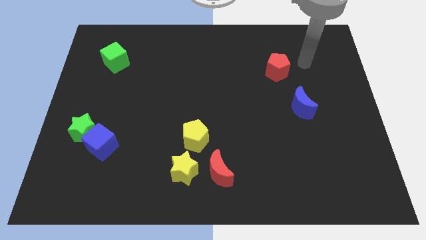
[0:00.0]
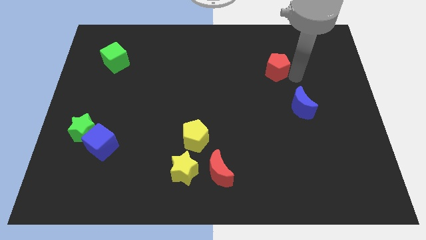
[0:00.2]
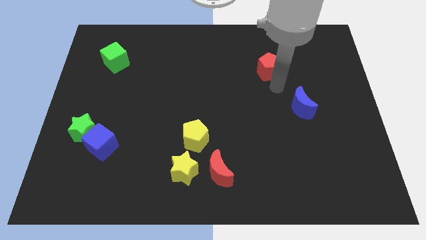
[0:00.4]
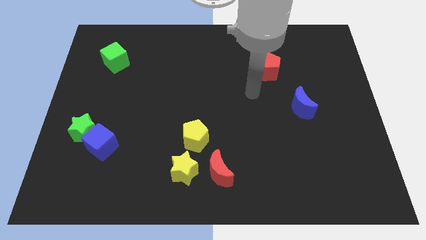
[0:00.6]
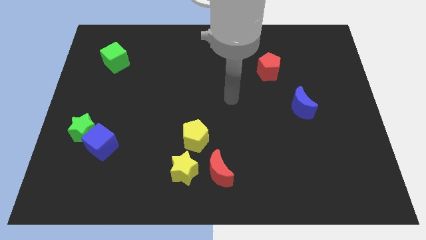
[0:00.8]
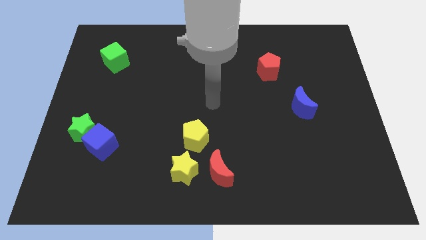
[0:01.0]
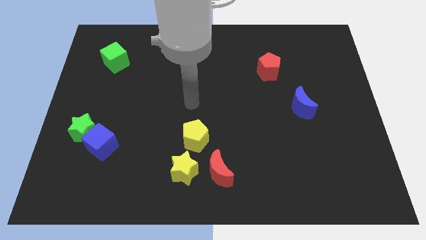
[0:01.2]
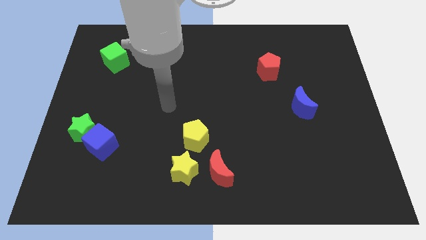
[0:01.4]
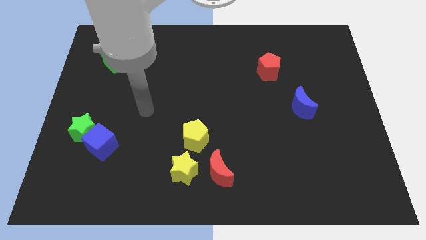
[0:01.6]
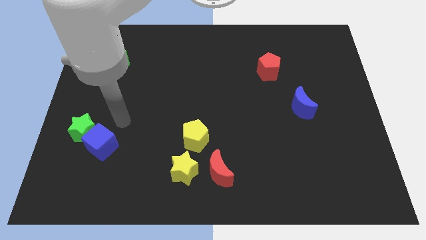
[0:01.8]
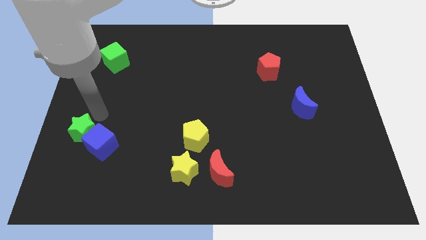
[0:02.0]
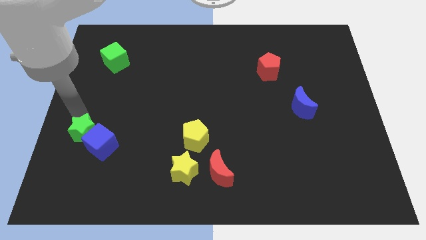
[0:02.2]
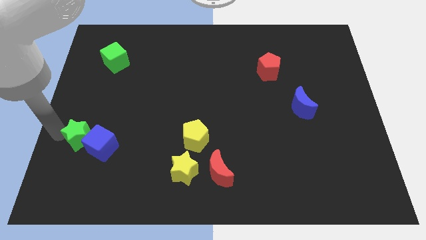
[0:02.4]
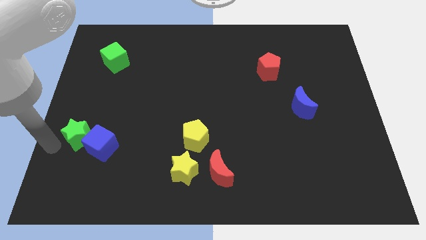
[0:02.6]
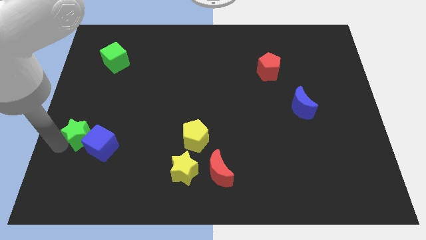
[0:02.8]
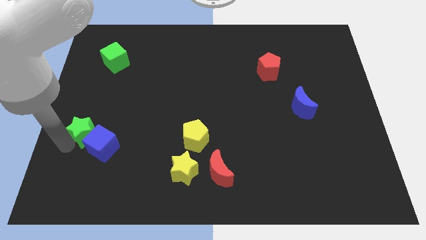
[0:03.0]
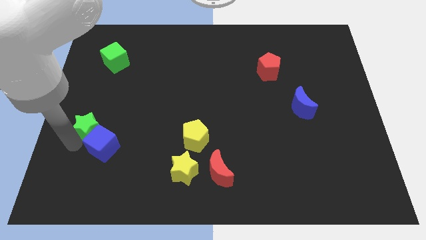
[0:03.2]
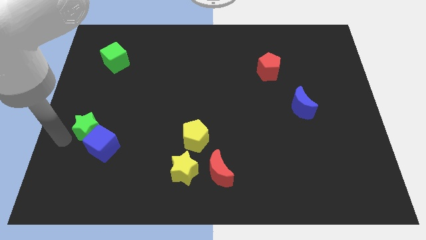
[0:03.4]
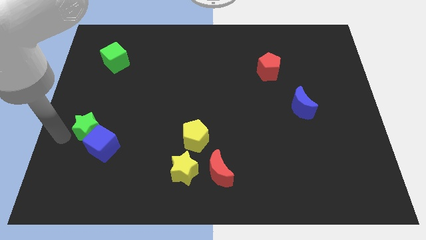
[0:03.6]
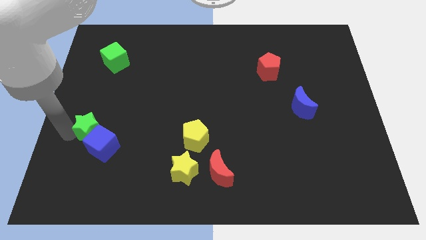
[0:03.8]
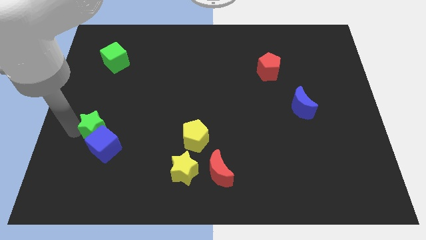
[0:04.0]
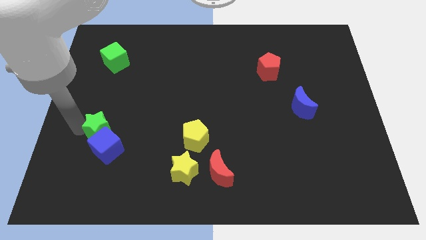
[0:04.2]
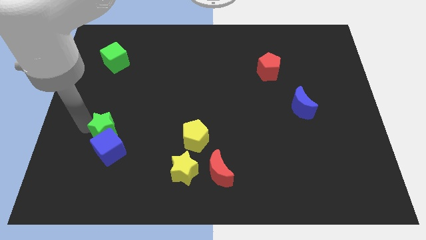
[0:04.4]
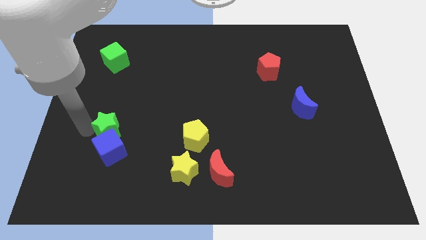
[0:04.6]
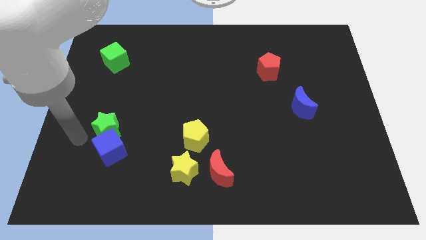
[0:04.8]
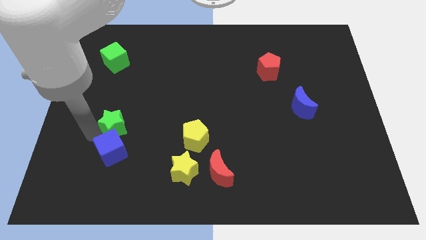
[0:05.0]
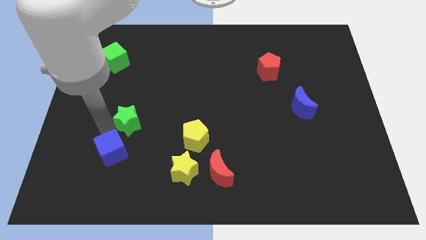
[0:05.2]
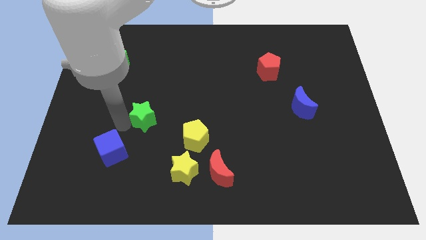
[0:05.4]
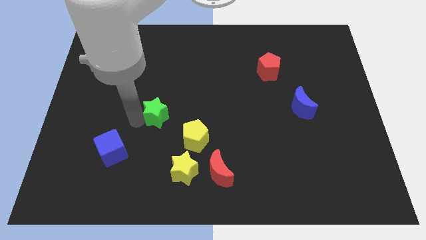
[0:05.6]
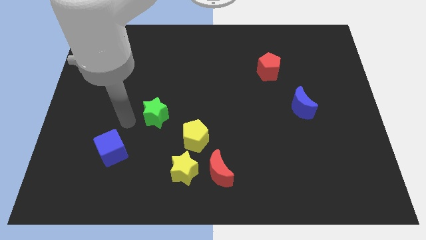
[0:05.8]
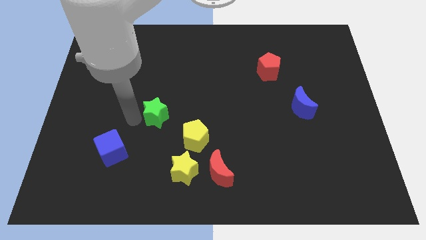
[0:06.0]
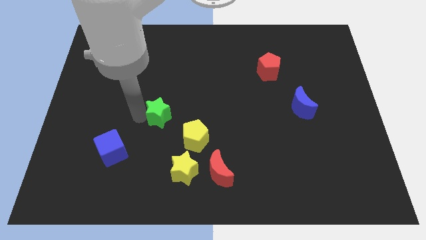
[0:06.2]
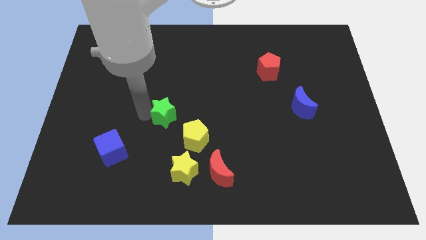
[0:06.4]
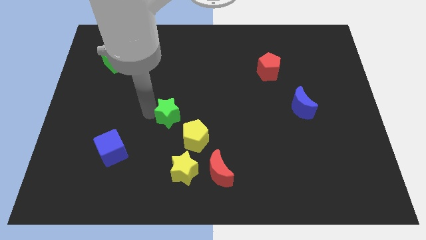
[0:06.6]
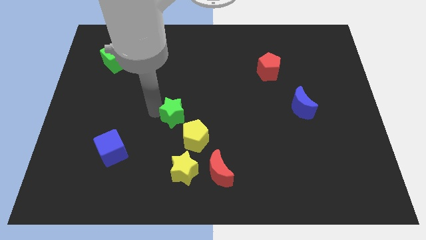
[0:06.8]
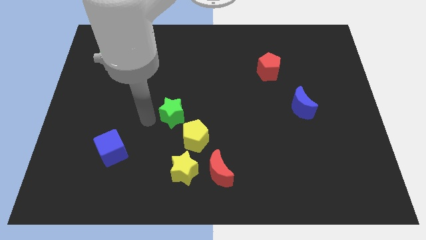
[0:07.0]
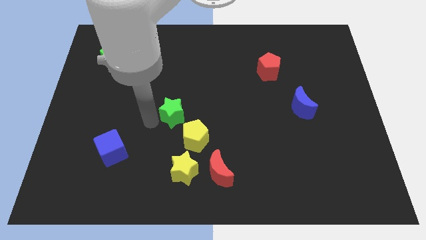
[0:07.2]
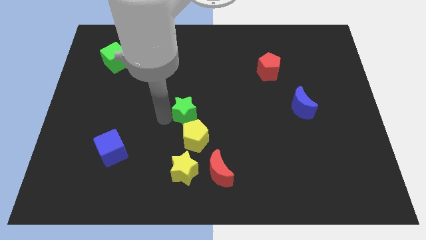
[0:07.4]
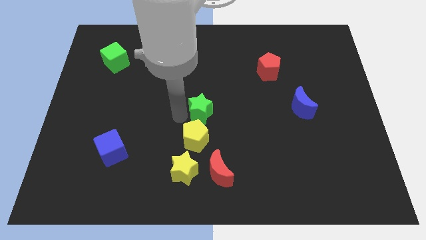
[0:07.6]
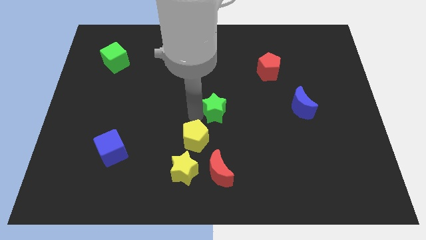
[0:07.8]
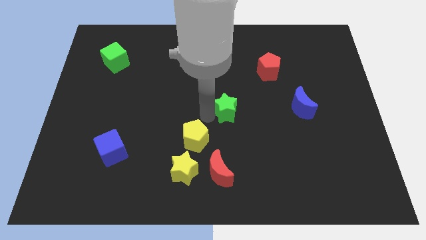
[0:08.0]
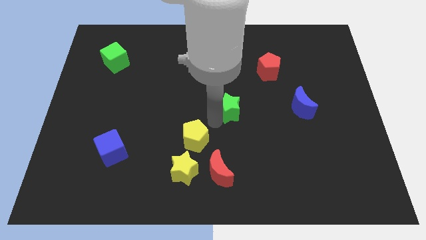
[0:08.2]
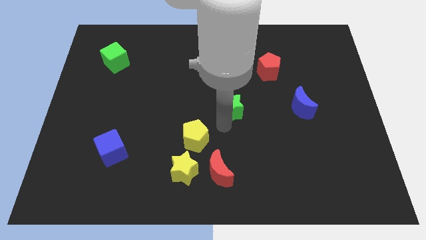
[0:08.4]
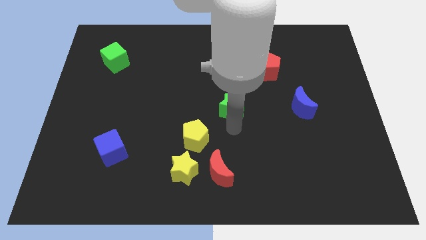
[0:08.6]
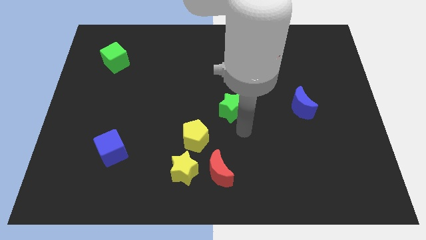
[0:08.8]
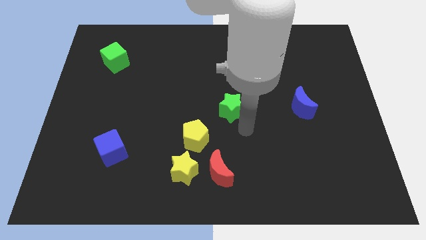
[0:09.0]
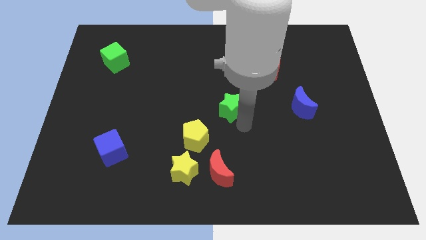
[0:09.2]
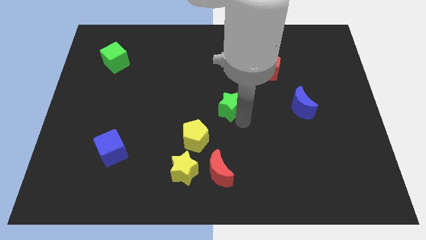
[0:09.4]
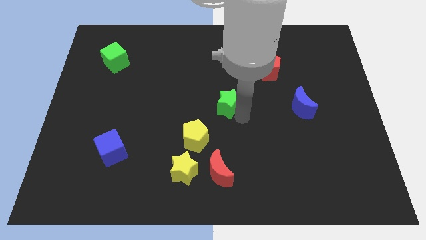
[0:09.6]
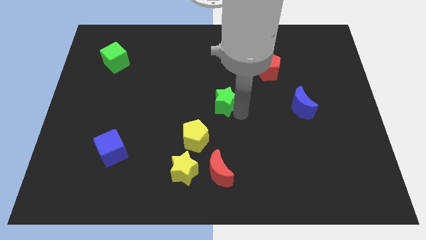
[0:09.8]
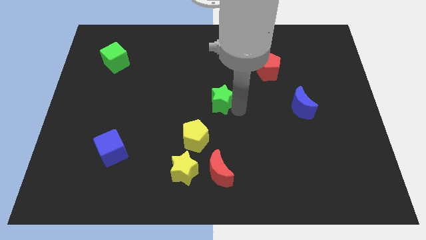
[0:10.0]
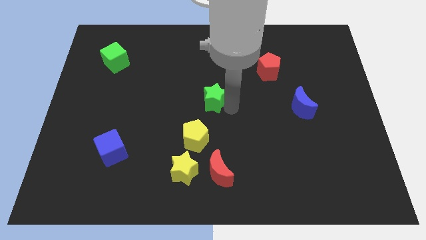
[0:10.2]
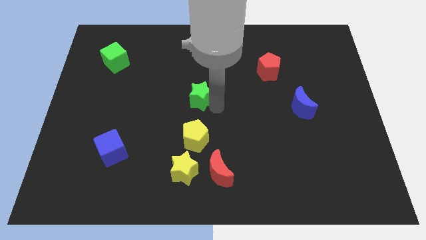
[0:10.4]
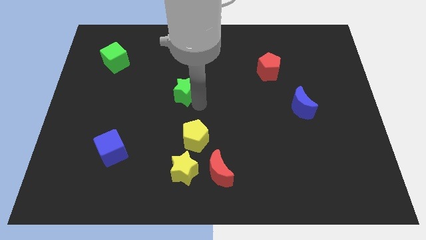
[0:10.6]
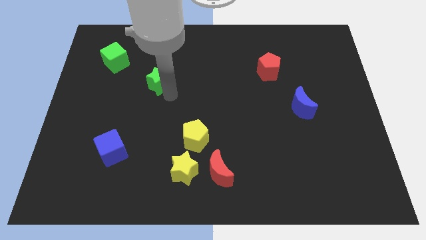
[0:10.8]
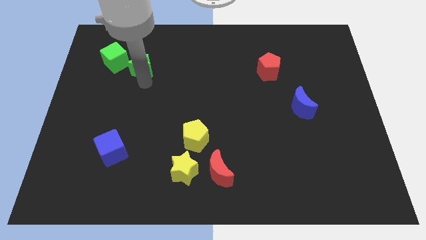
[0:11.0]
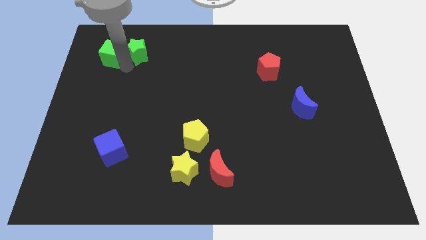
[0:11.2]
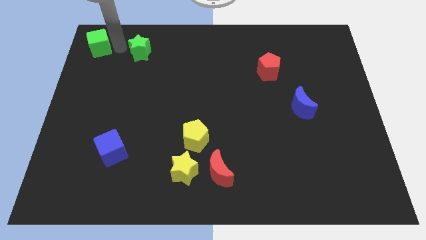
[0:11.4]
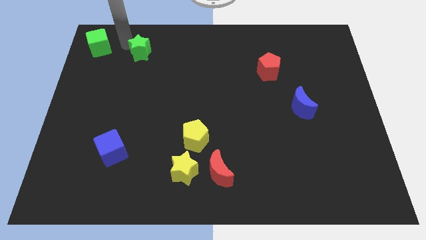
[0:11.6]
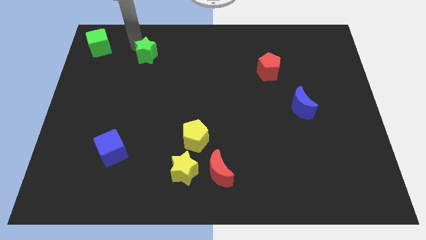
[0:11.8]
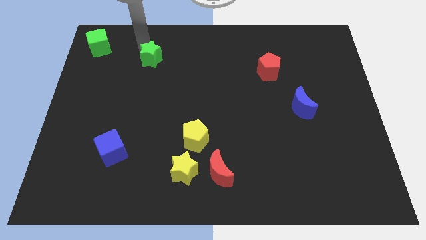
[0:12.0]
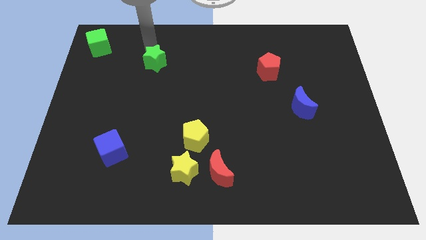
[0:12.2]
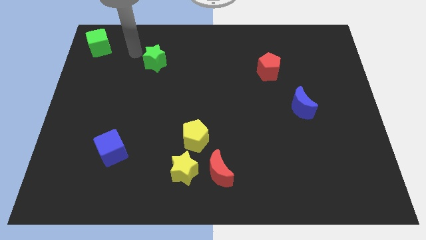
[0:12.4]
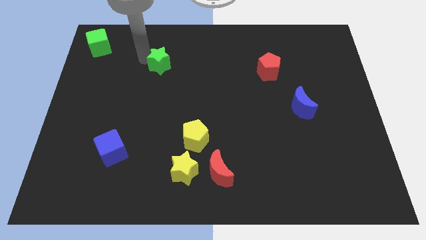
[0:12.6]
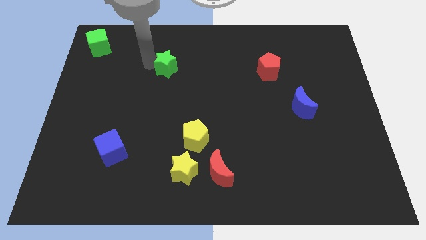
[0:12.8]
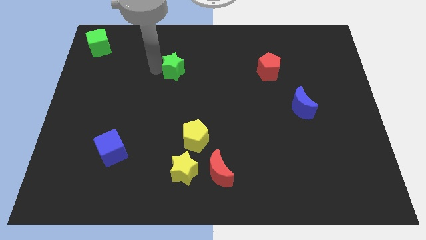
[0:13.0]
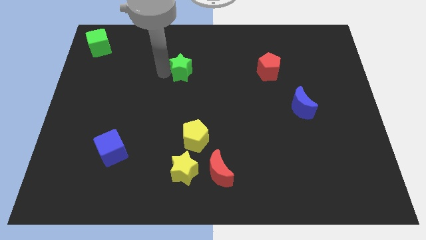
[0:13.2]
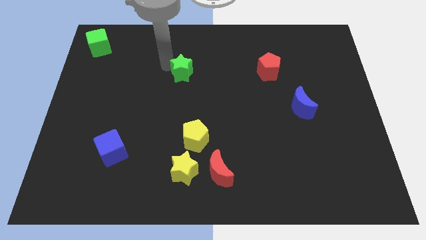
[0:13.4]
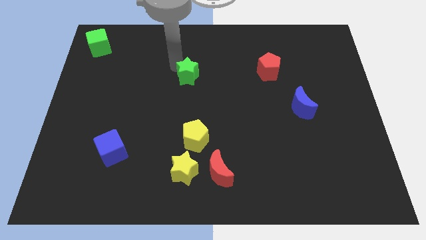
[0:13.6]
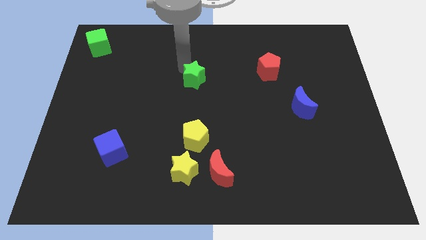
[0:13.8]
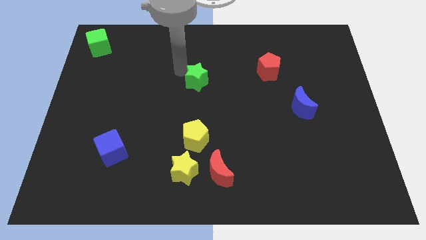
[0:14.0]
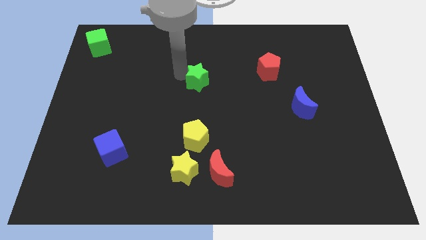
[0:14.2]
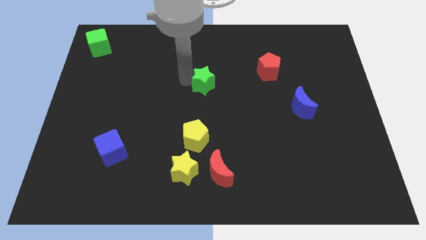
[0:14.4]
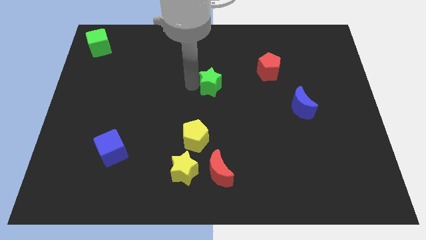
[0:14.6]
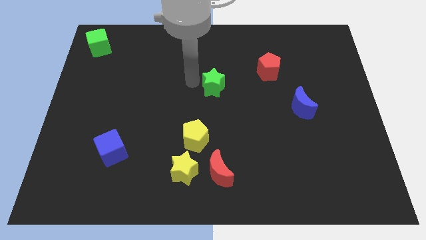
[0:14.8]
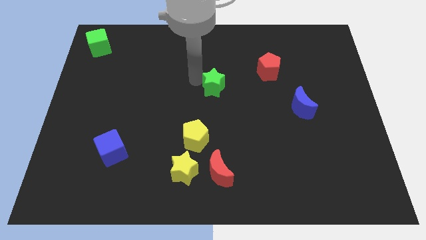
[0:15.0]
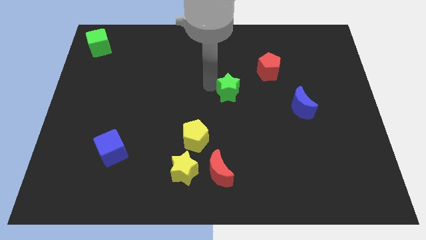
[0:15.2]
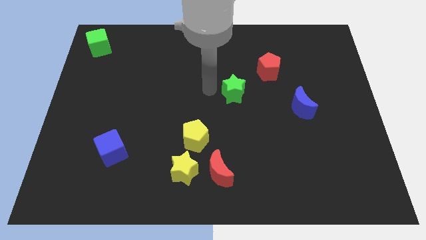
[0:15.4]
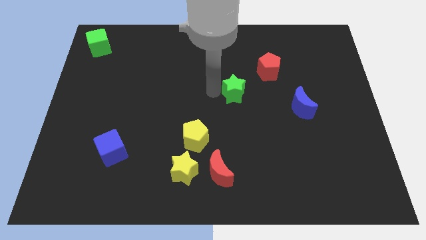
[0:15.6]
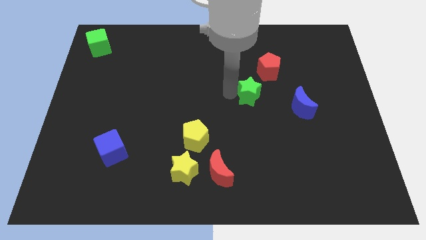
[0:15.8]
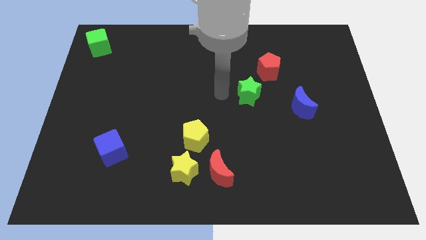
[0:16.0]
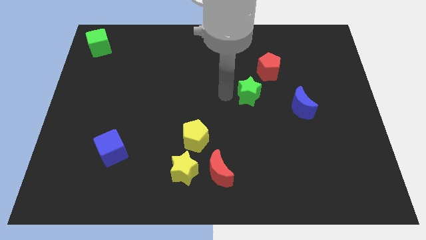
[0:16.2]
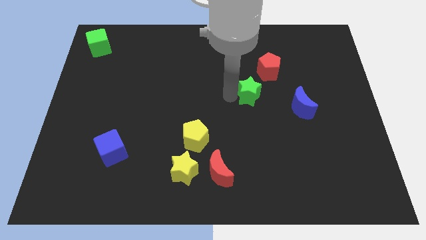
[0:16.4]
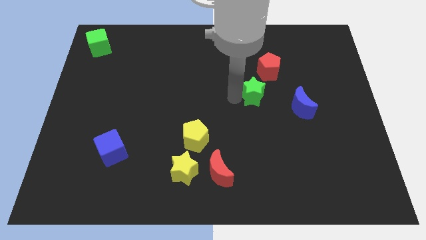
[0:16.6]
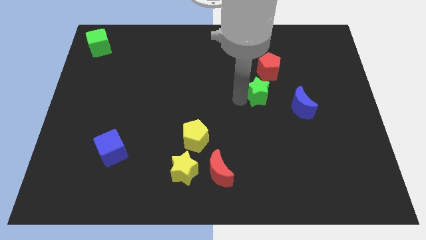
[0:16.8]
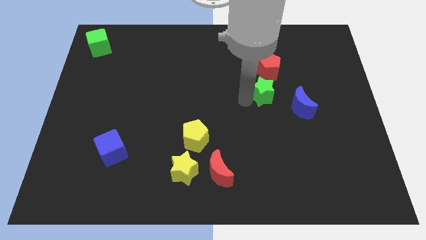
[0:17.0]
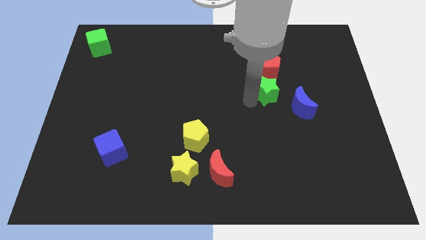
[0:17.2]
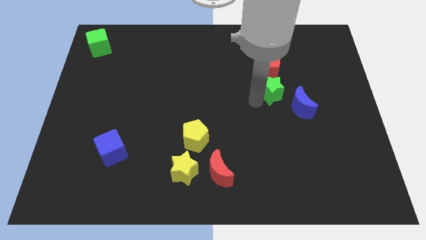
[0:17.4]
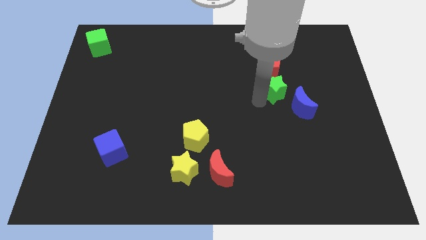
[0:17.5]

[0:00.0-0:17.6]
slide the green star diagonally down and to the right of the red pentagon
